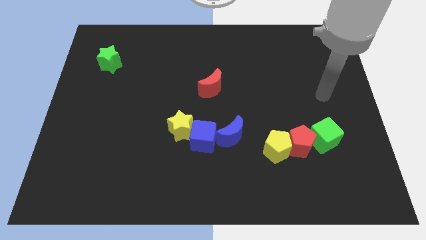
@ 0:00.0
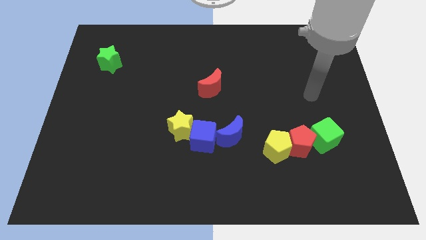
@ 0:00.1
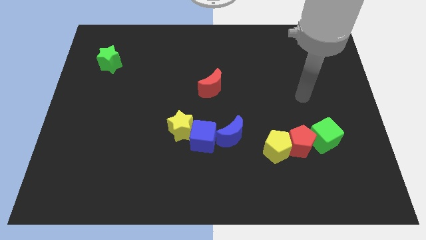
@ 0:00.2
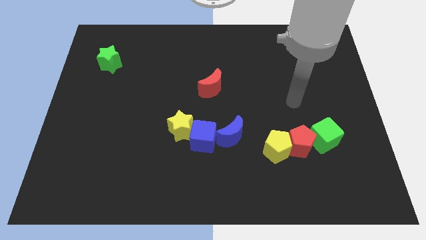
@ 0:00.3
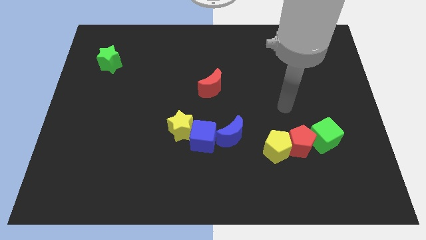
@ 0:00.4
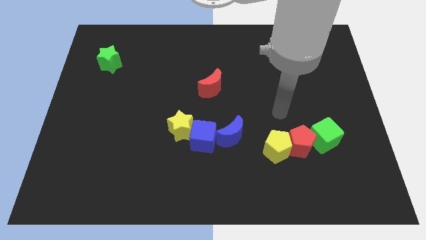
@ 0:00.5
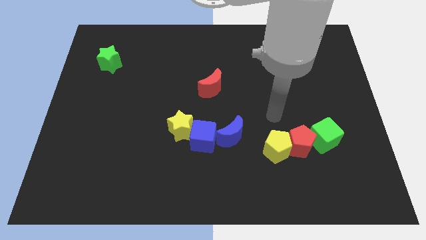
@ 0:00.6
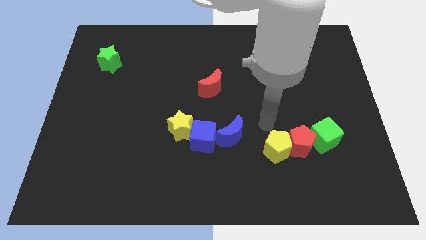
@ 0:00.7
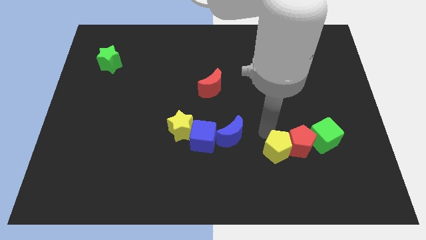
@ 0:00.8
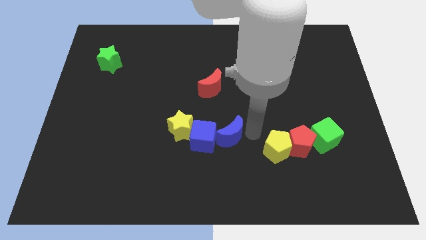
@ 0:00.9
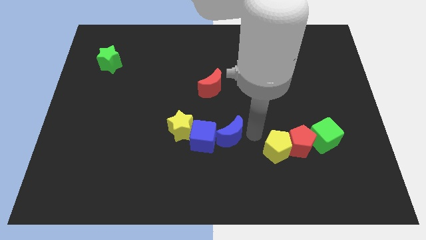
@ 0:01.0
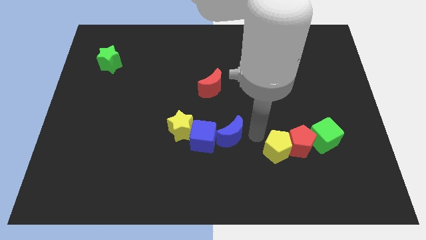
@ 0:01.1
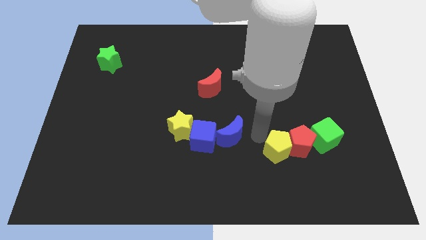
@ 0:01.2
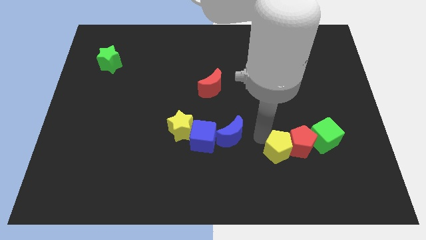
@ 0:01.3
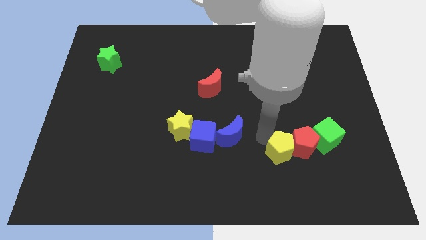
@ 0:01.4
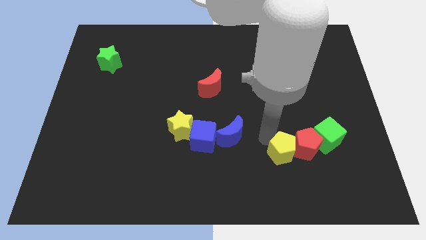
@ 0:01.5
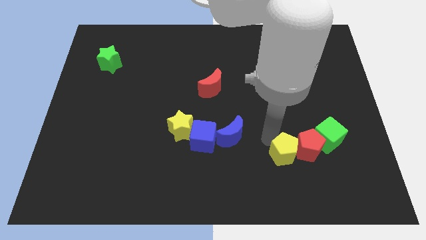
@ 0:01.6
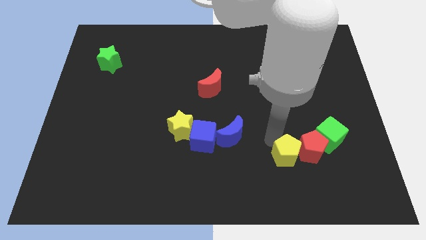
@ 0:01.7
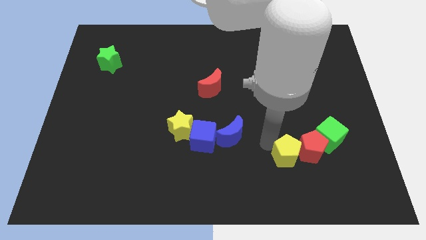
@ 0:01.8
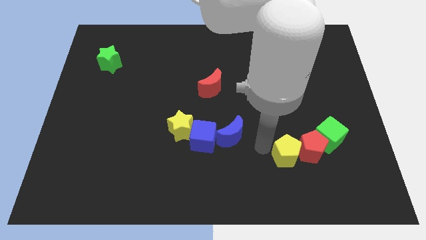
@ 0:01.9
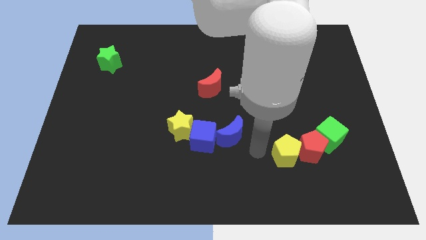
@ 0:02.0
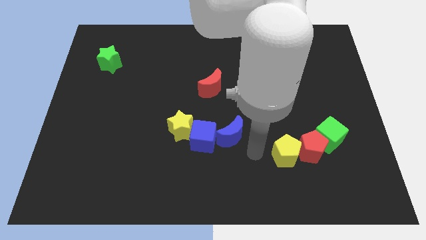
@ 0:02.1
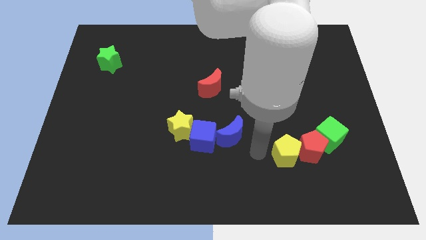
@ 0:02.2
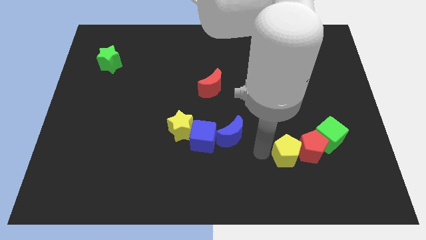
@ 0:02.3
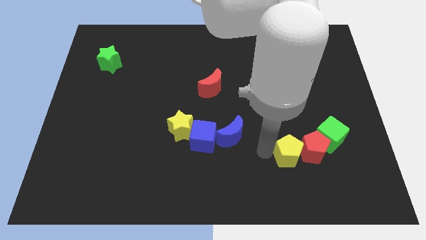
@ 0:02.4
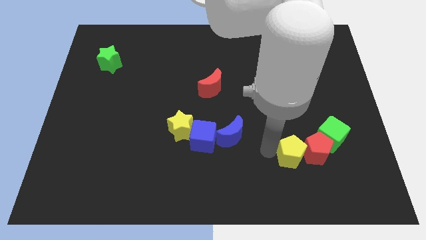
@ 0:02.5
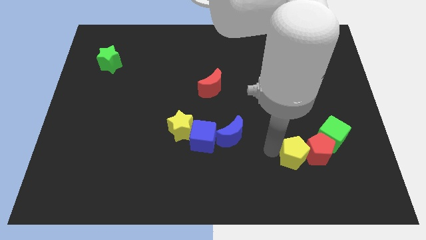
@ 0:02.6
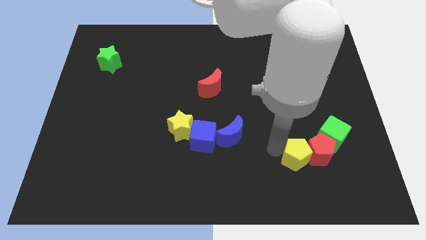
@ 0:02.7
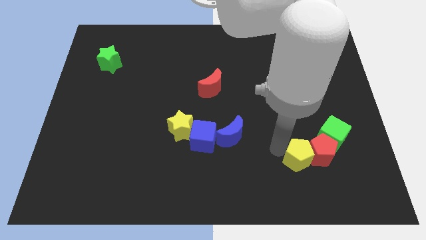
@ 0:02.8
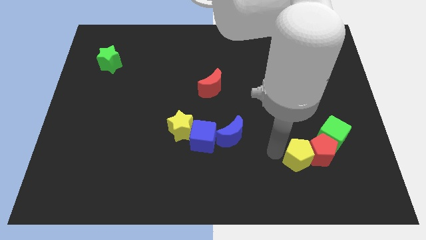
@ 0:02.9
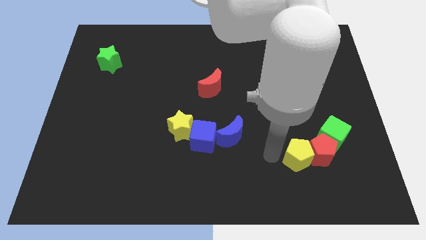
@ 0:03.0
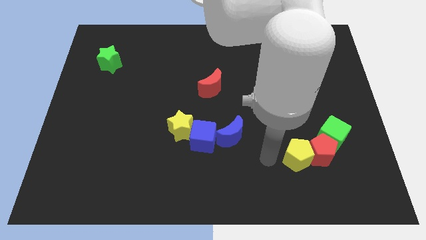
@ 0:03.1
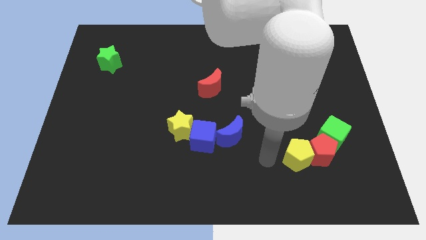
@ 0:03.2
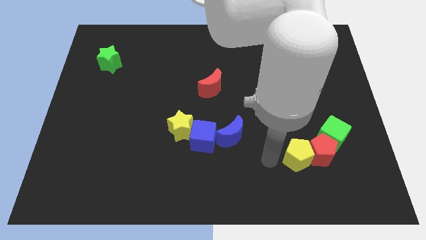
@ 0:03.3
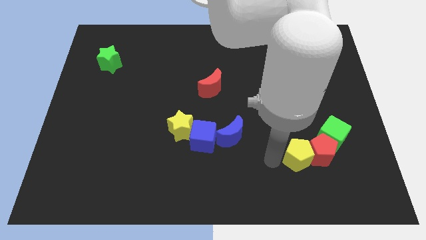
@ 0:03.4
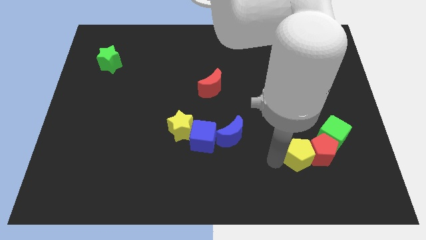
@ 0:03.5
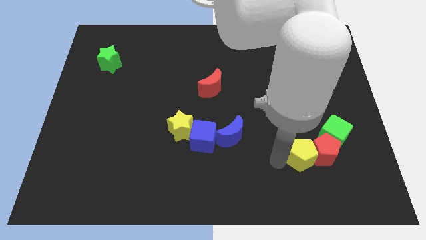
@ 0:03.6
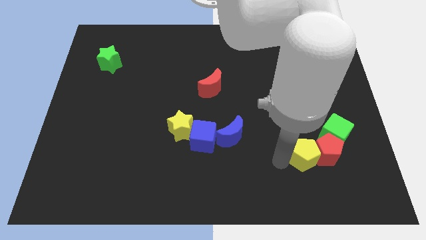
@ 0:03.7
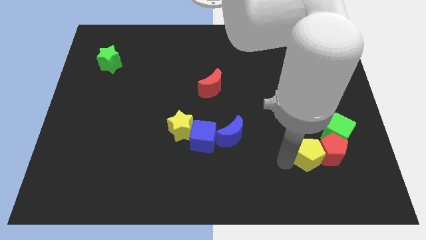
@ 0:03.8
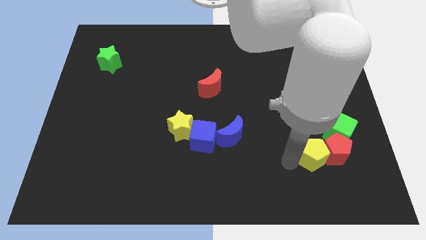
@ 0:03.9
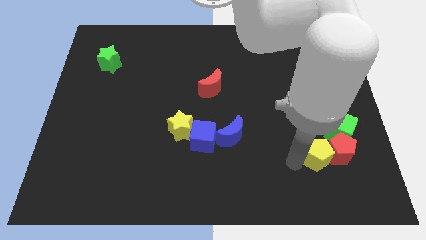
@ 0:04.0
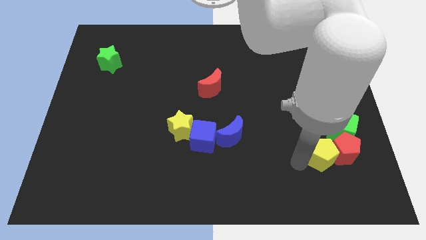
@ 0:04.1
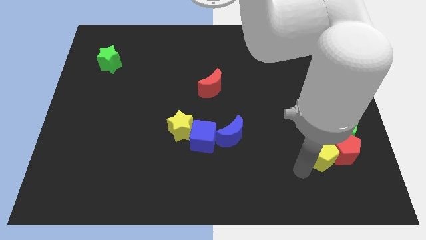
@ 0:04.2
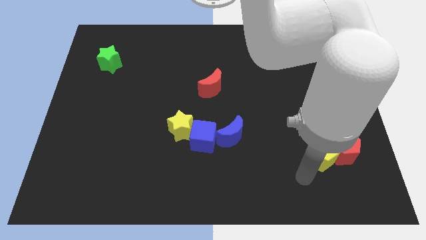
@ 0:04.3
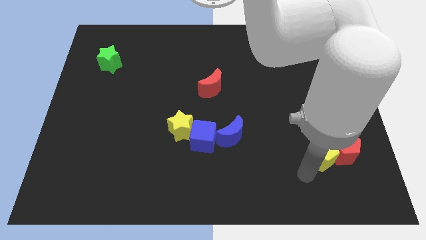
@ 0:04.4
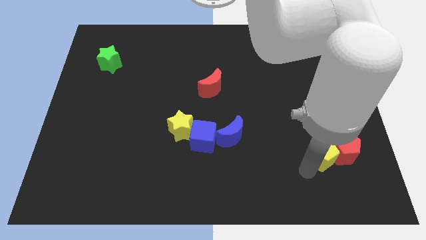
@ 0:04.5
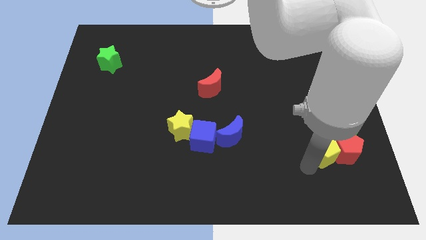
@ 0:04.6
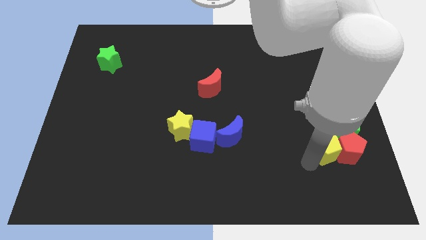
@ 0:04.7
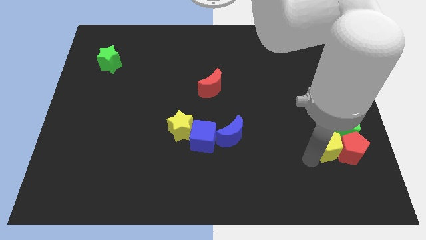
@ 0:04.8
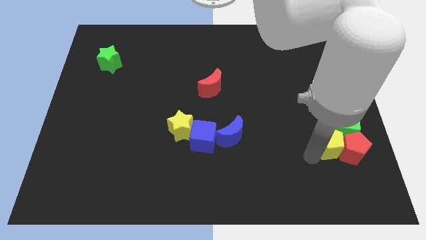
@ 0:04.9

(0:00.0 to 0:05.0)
put the yellow pentagon towards the green cube

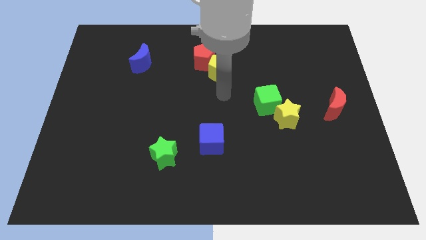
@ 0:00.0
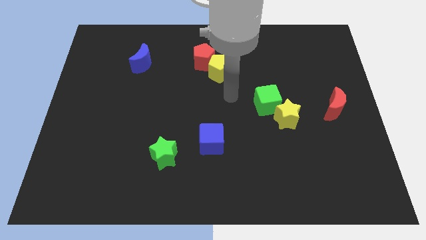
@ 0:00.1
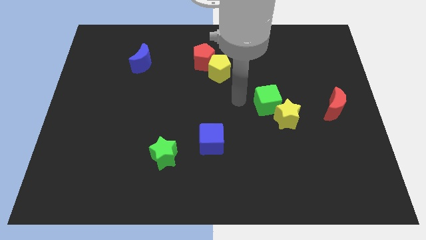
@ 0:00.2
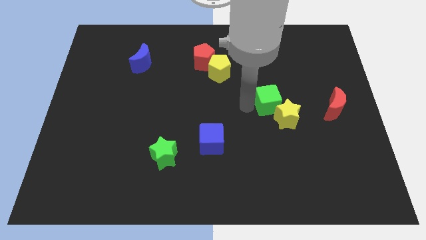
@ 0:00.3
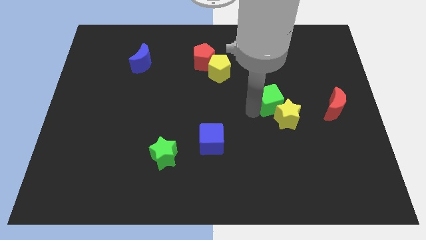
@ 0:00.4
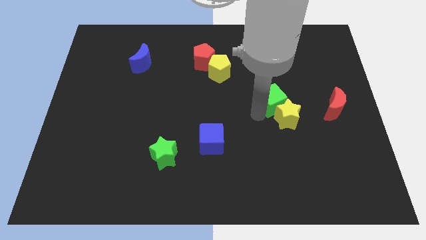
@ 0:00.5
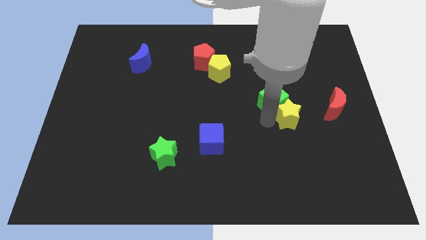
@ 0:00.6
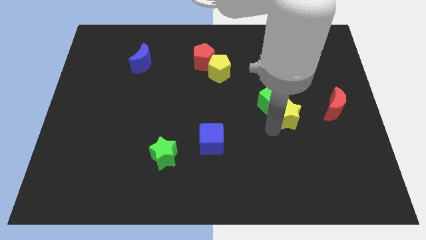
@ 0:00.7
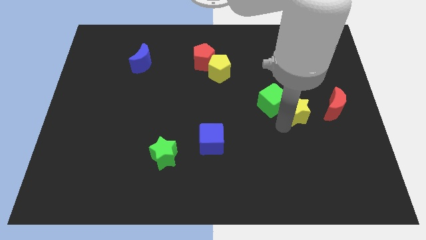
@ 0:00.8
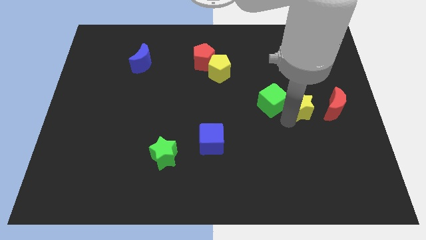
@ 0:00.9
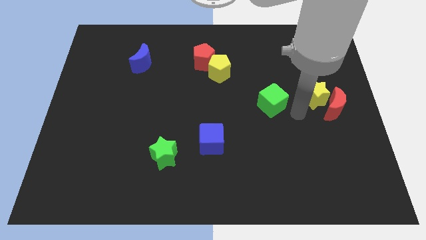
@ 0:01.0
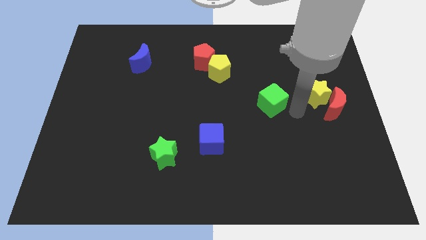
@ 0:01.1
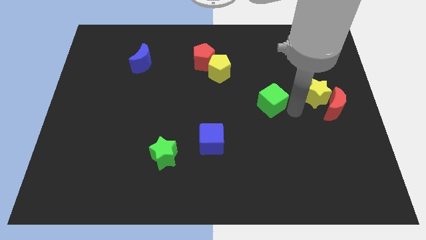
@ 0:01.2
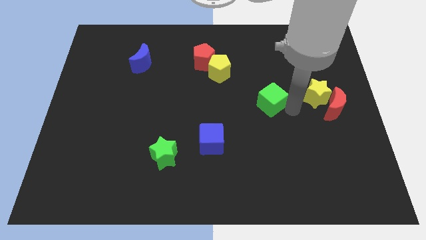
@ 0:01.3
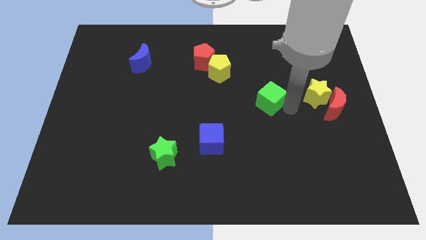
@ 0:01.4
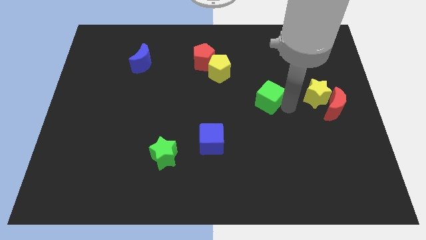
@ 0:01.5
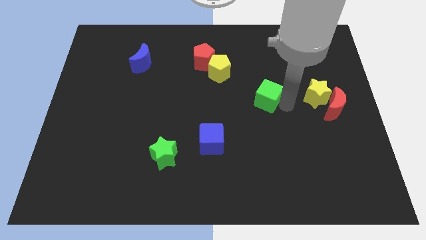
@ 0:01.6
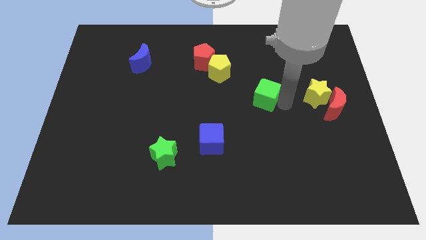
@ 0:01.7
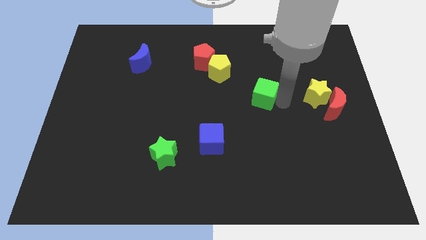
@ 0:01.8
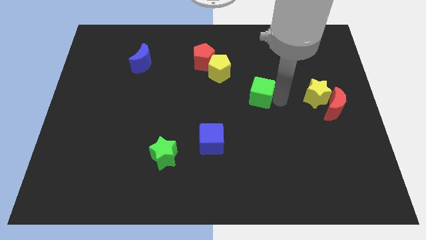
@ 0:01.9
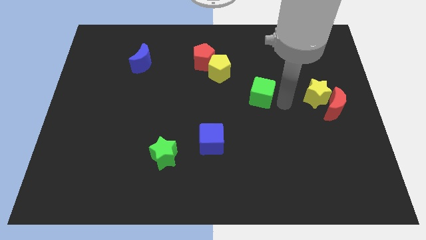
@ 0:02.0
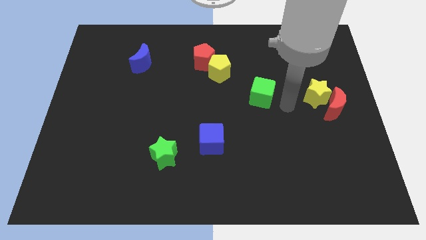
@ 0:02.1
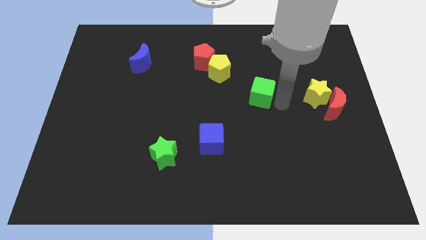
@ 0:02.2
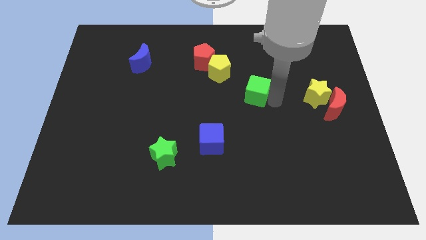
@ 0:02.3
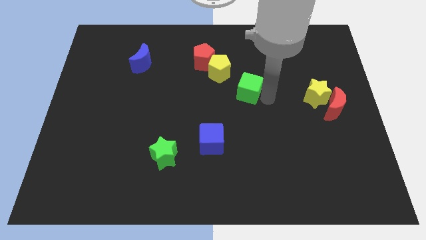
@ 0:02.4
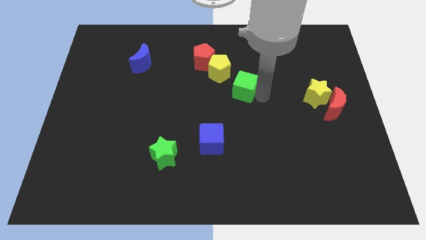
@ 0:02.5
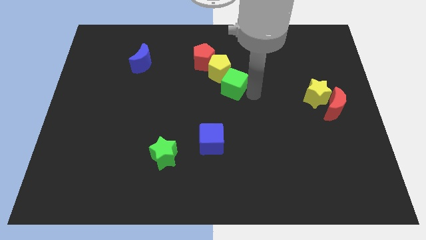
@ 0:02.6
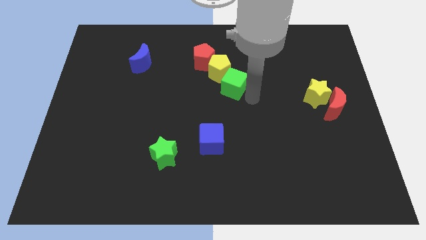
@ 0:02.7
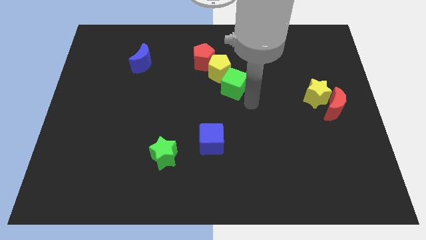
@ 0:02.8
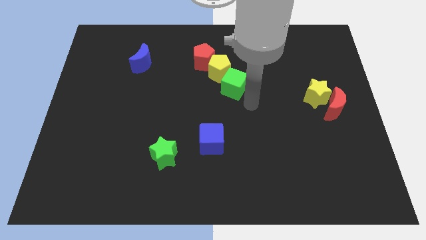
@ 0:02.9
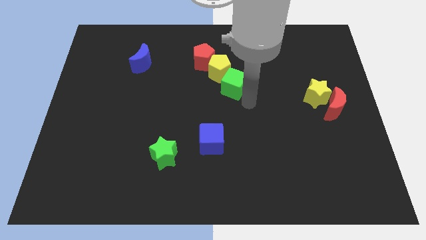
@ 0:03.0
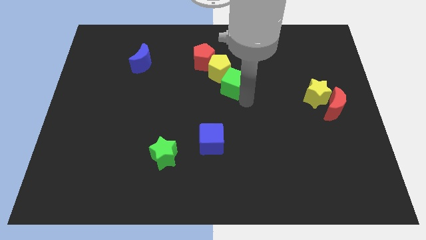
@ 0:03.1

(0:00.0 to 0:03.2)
move the green cube next to the yellow pentagon

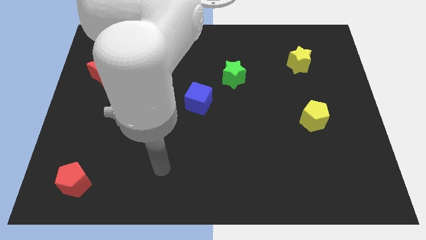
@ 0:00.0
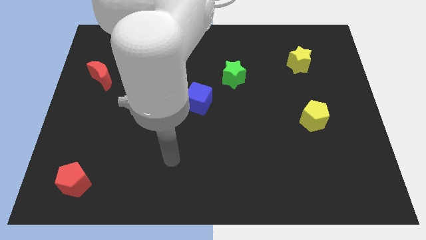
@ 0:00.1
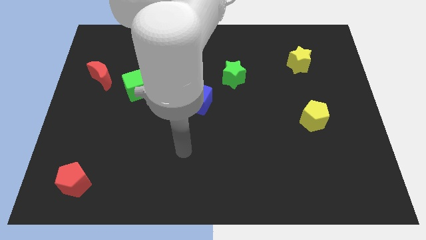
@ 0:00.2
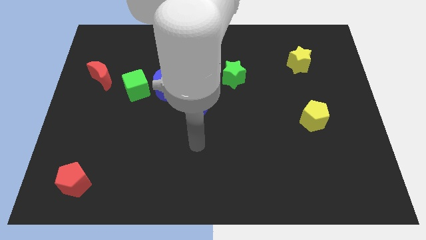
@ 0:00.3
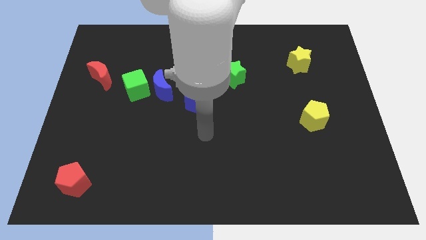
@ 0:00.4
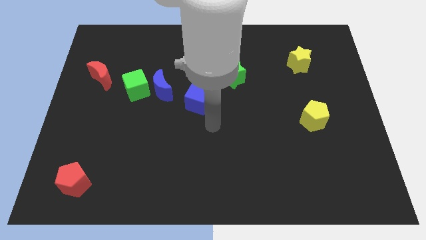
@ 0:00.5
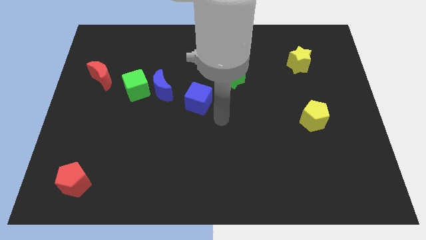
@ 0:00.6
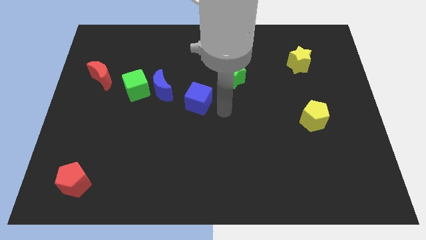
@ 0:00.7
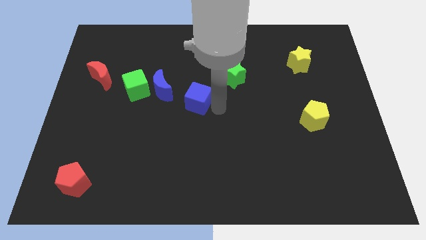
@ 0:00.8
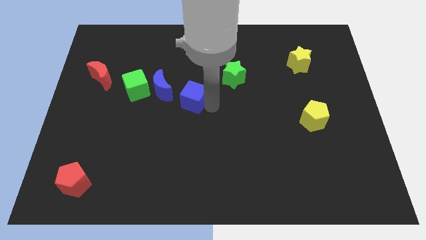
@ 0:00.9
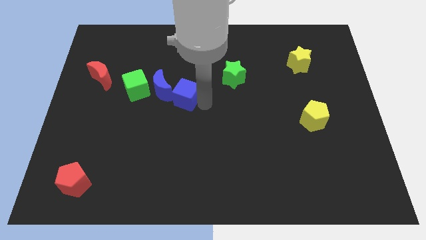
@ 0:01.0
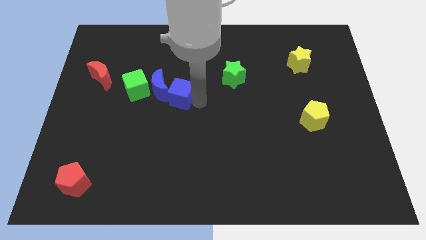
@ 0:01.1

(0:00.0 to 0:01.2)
slide the blue cube to the blue moon
